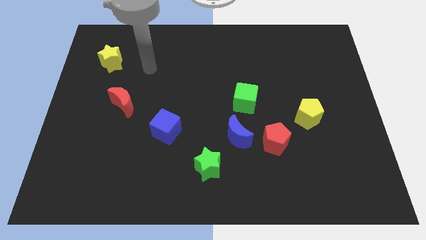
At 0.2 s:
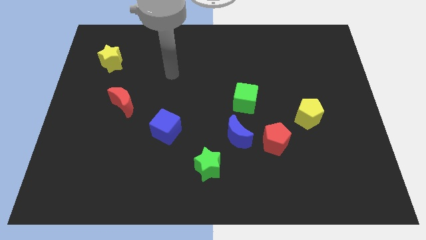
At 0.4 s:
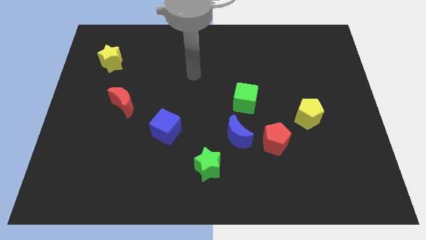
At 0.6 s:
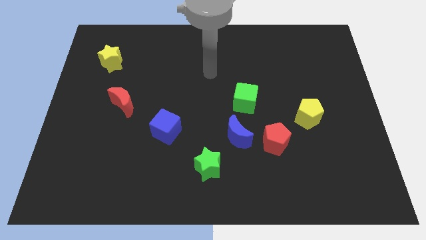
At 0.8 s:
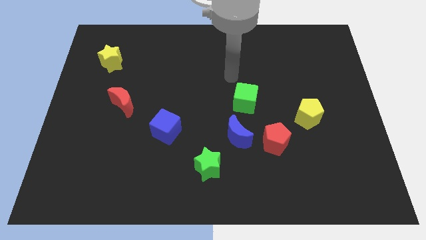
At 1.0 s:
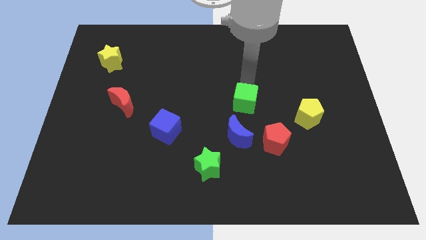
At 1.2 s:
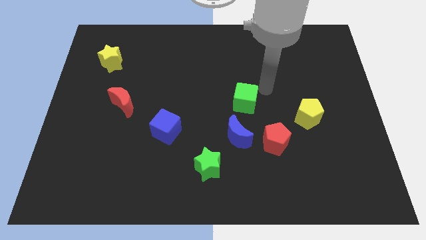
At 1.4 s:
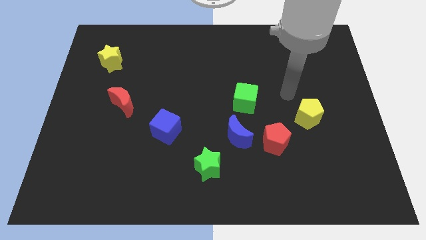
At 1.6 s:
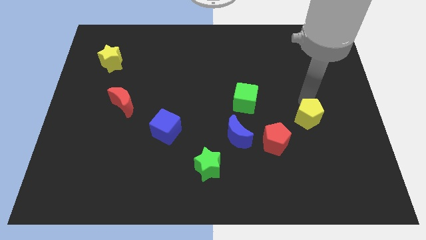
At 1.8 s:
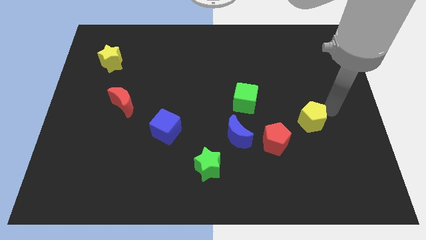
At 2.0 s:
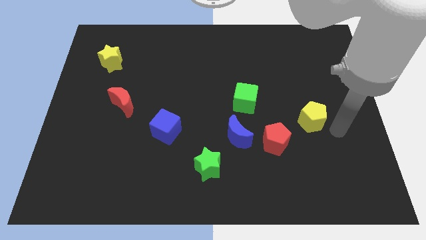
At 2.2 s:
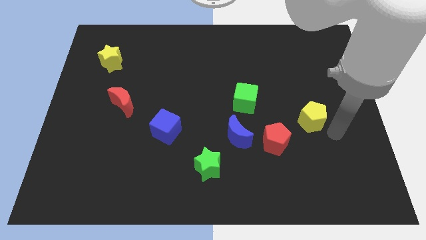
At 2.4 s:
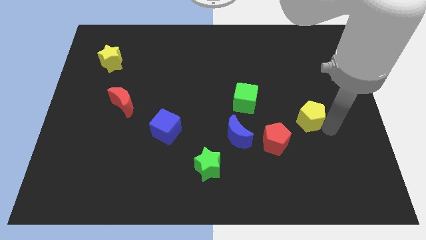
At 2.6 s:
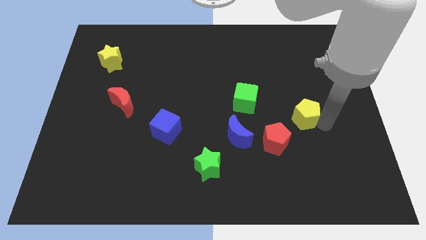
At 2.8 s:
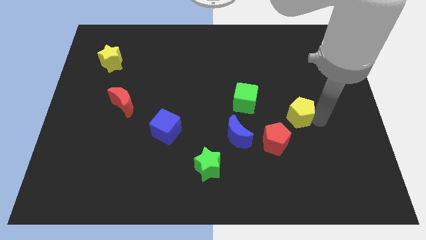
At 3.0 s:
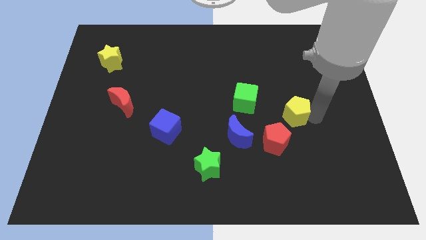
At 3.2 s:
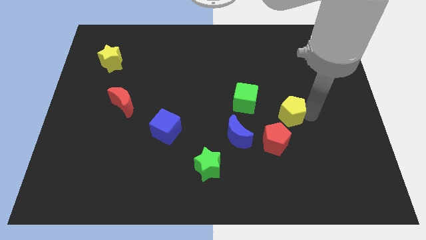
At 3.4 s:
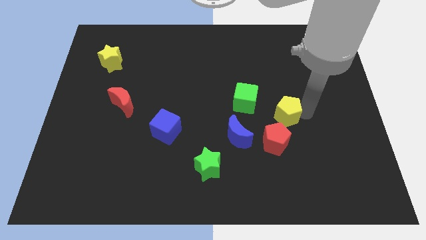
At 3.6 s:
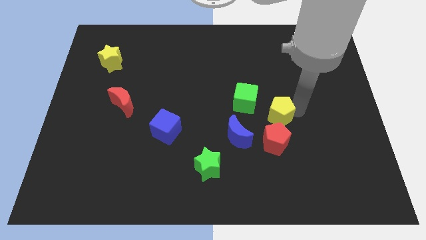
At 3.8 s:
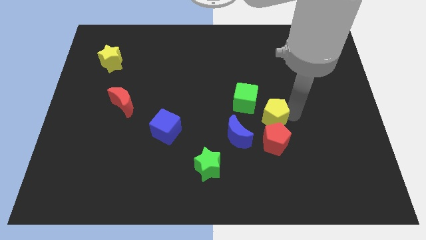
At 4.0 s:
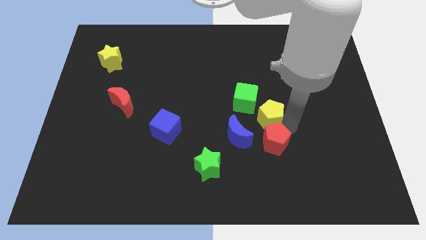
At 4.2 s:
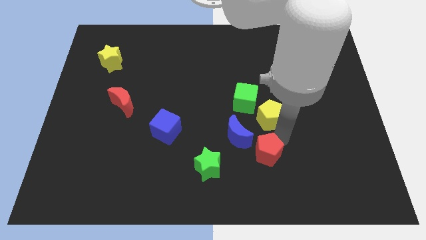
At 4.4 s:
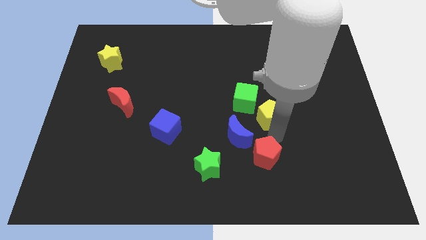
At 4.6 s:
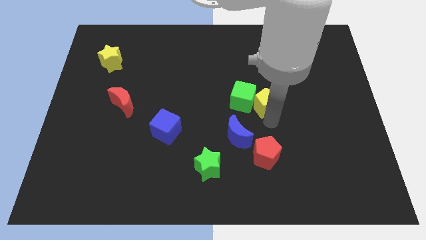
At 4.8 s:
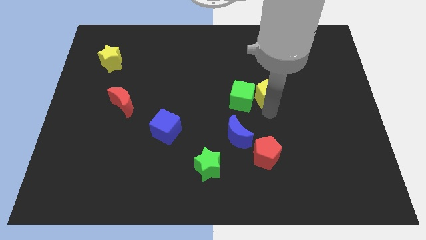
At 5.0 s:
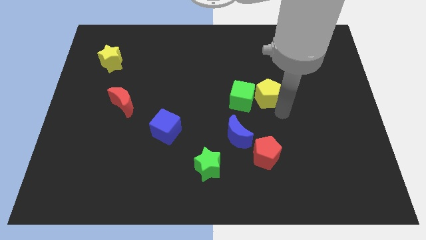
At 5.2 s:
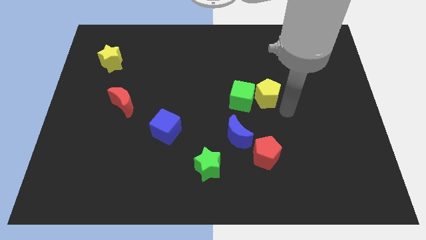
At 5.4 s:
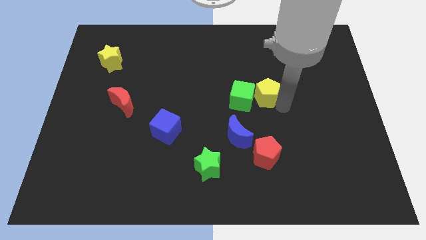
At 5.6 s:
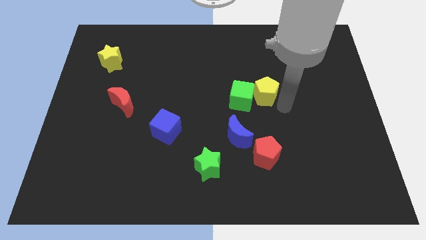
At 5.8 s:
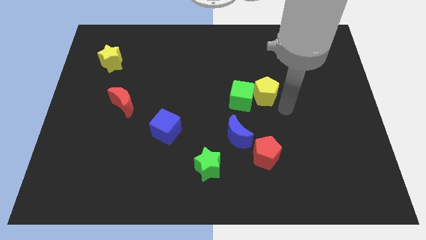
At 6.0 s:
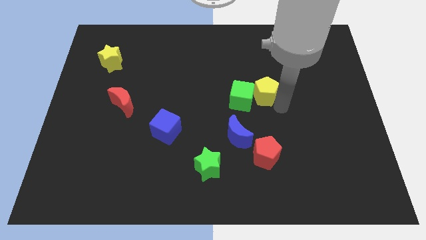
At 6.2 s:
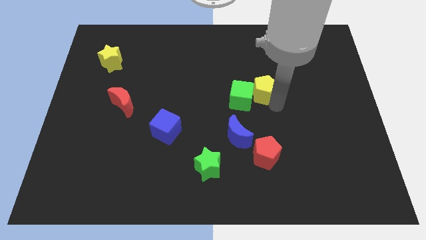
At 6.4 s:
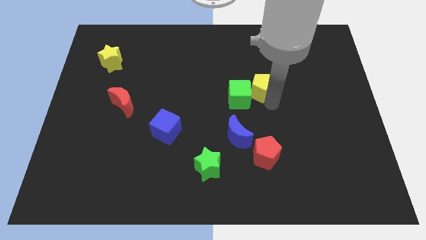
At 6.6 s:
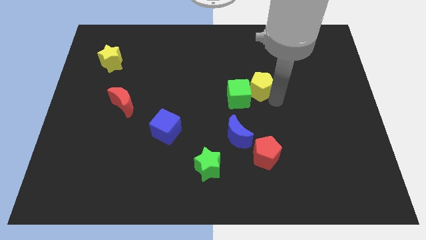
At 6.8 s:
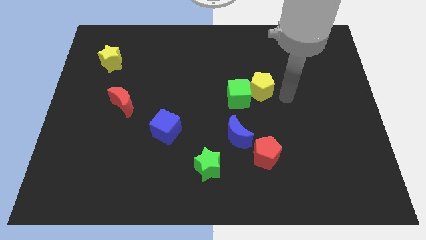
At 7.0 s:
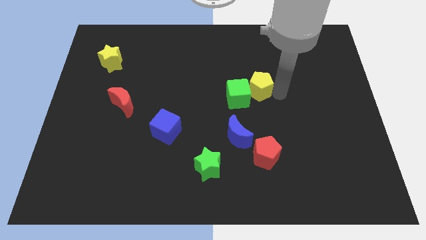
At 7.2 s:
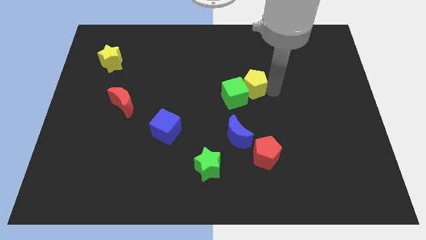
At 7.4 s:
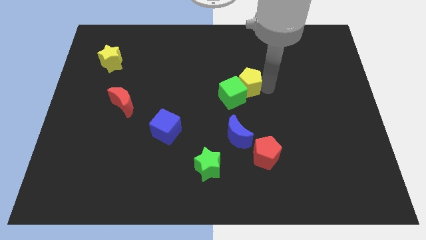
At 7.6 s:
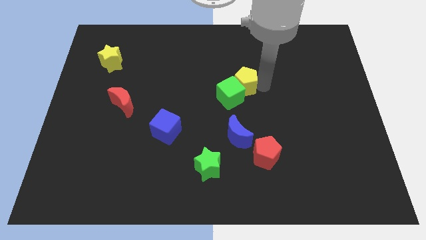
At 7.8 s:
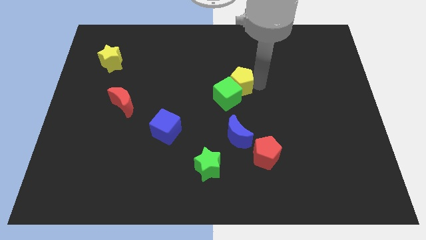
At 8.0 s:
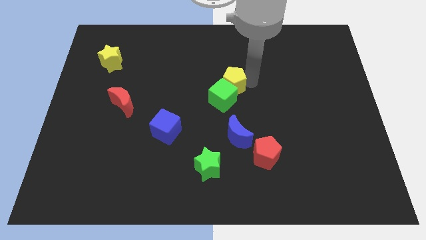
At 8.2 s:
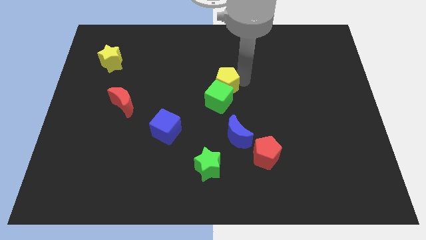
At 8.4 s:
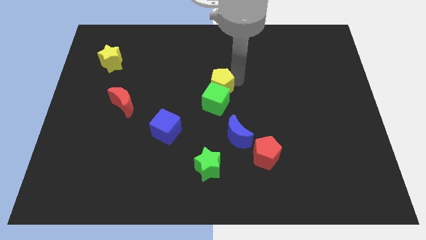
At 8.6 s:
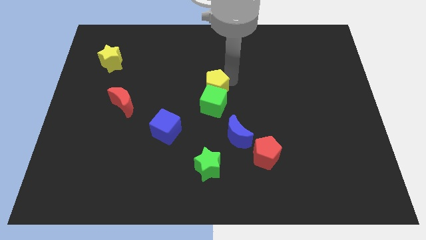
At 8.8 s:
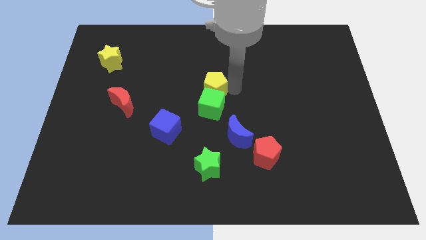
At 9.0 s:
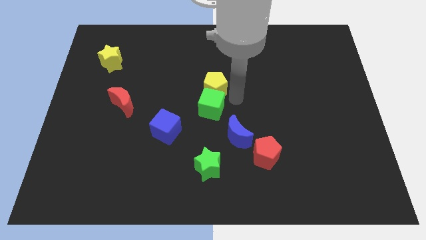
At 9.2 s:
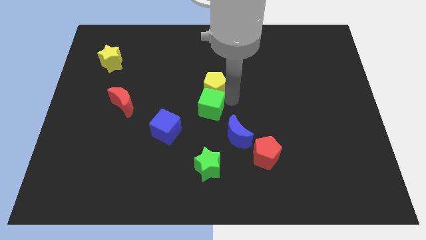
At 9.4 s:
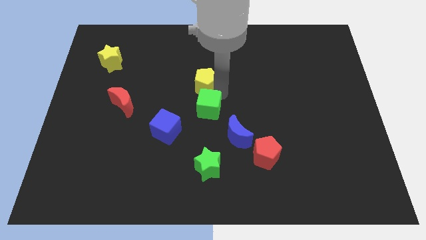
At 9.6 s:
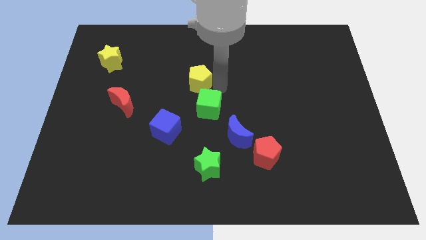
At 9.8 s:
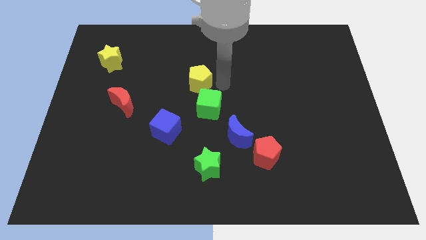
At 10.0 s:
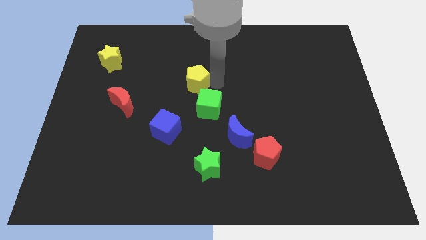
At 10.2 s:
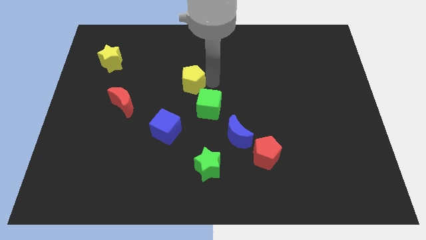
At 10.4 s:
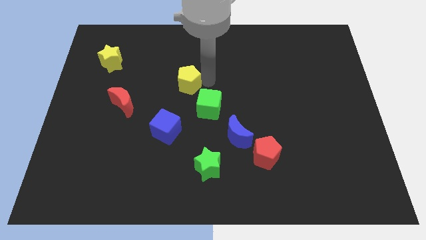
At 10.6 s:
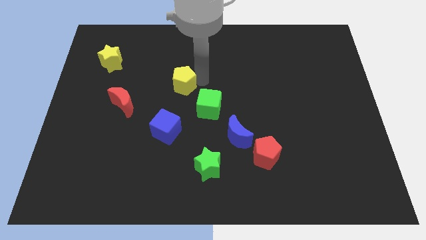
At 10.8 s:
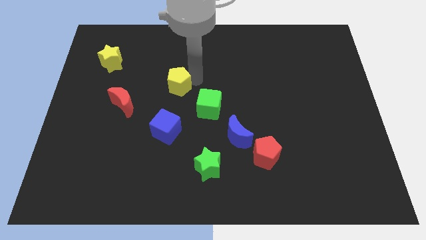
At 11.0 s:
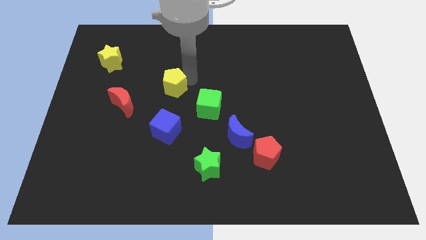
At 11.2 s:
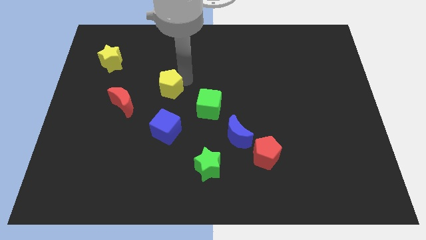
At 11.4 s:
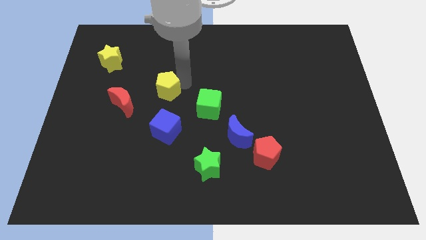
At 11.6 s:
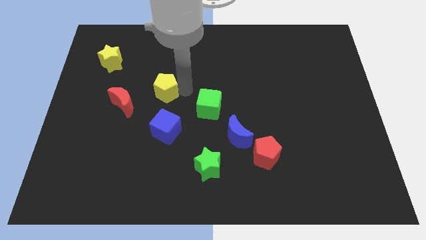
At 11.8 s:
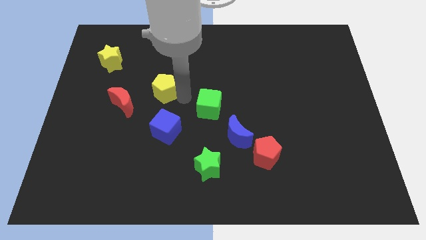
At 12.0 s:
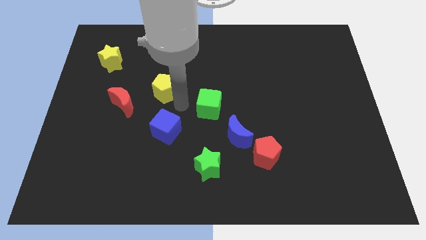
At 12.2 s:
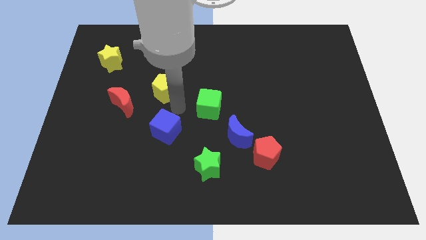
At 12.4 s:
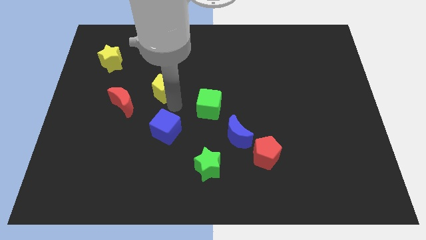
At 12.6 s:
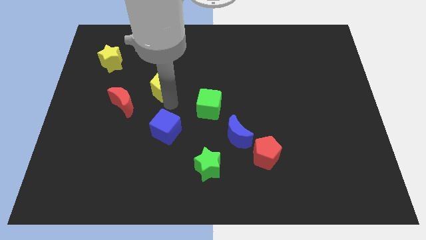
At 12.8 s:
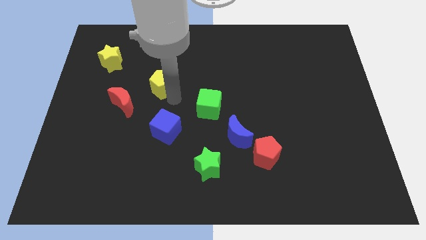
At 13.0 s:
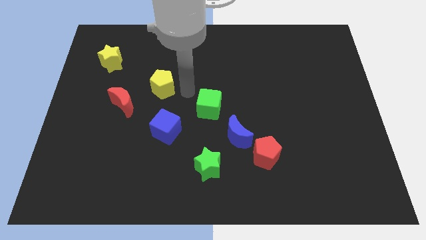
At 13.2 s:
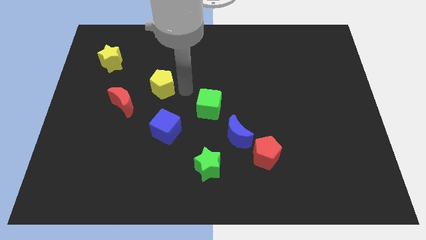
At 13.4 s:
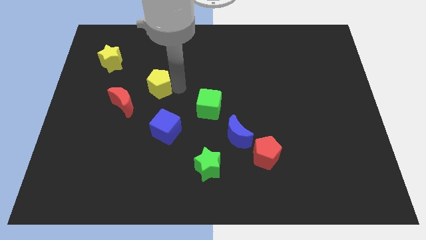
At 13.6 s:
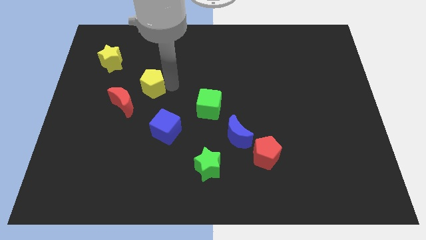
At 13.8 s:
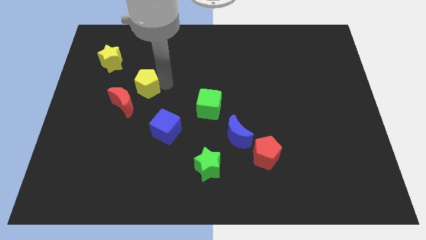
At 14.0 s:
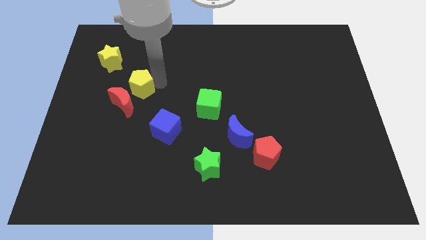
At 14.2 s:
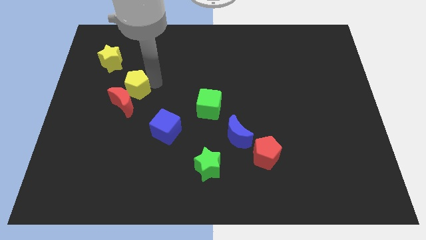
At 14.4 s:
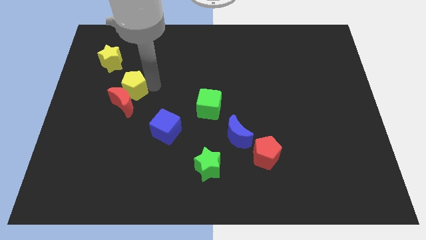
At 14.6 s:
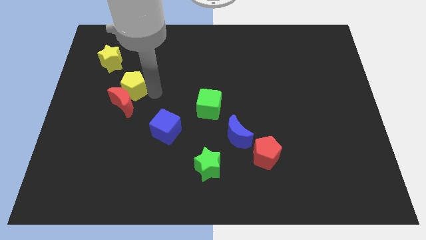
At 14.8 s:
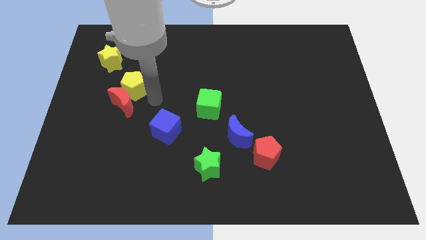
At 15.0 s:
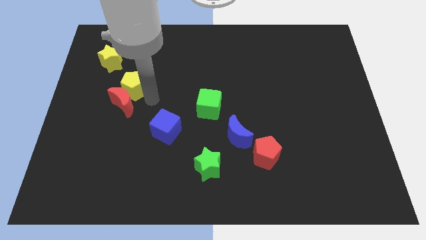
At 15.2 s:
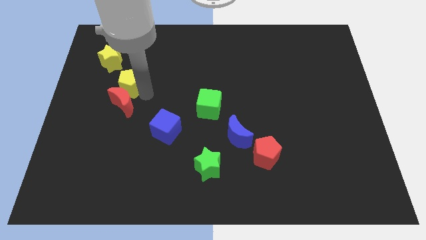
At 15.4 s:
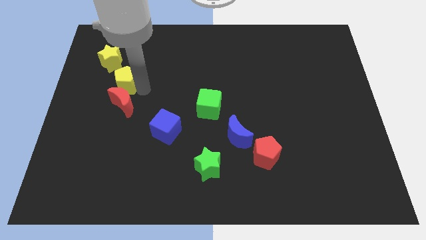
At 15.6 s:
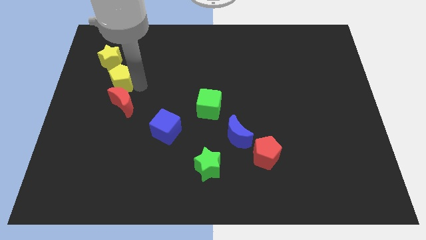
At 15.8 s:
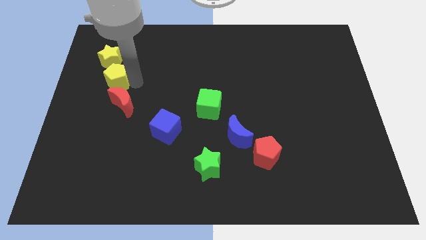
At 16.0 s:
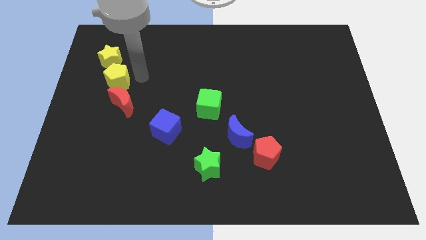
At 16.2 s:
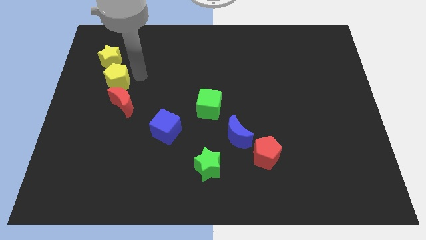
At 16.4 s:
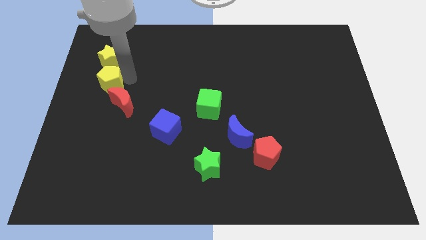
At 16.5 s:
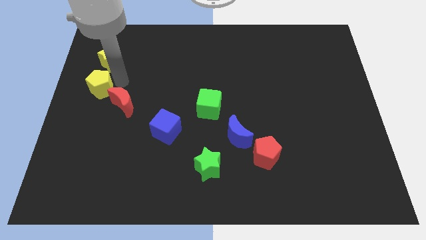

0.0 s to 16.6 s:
slide the yellow pentagon to the center left
